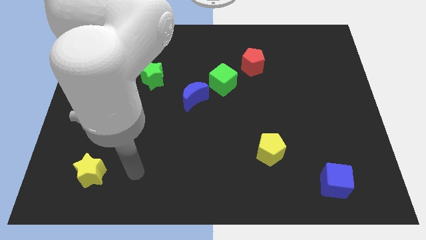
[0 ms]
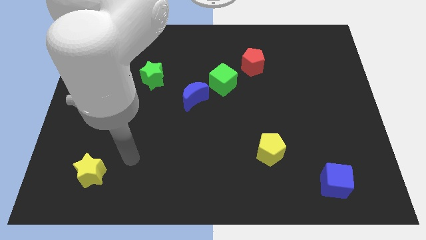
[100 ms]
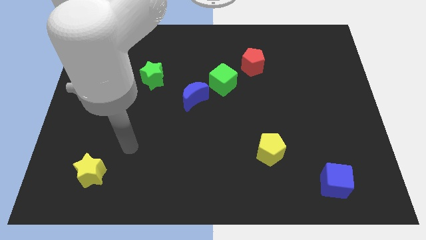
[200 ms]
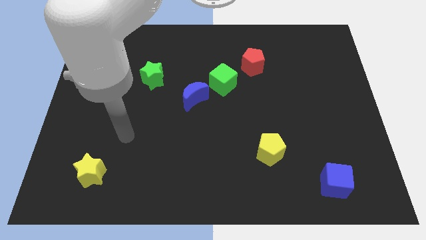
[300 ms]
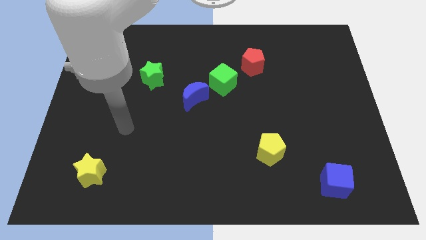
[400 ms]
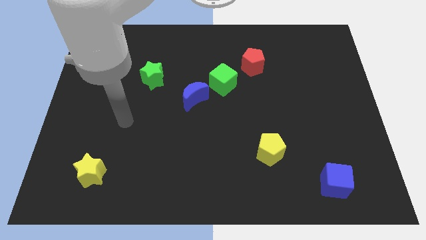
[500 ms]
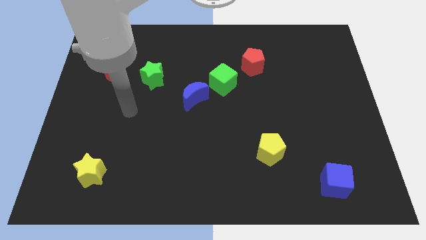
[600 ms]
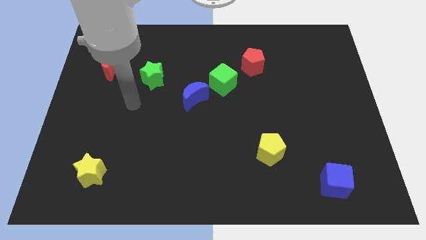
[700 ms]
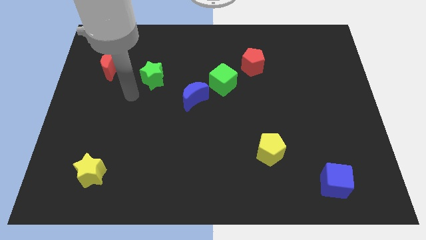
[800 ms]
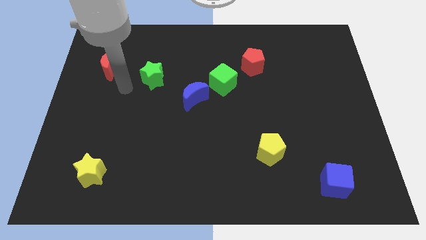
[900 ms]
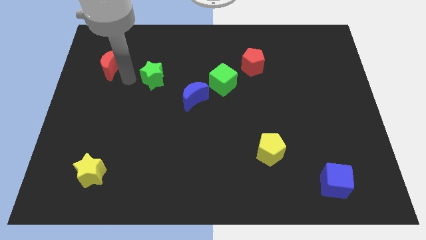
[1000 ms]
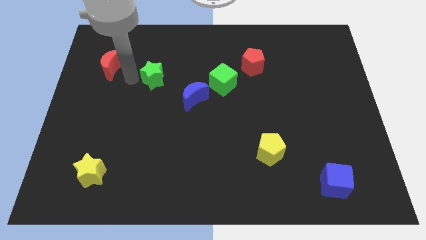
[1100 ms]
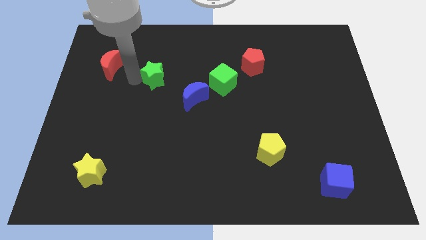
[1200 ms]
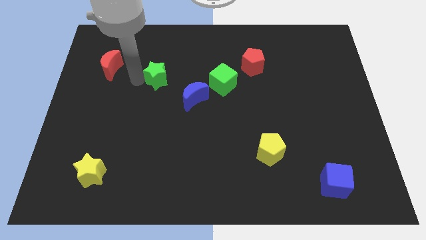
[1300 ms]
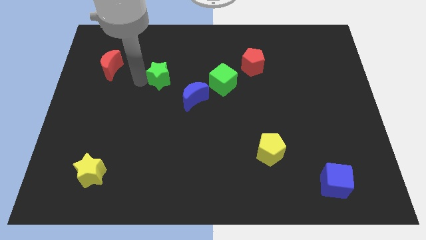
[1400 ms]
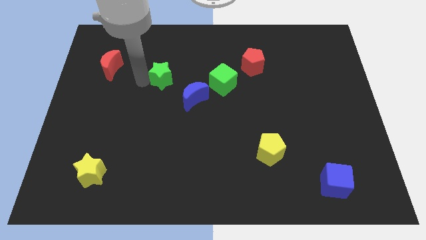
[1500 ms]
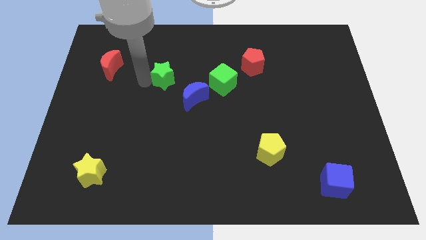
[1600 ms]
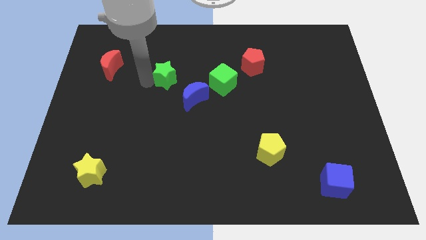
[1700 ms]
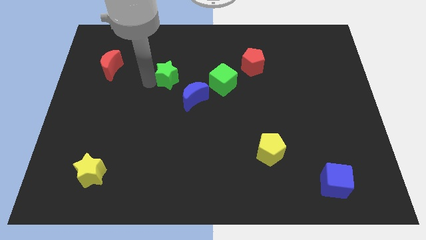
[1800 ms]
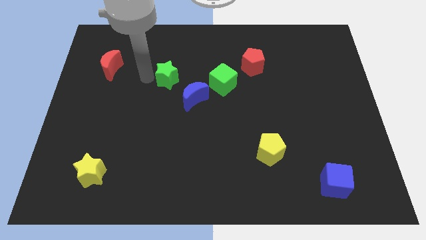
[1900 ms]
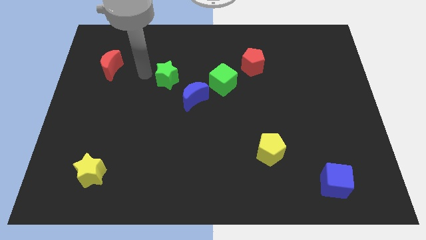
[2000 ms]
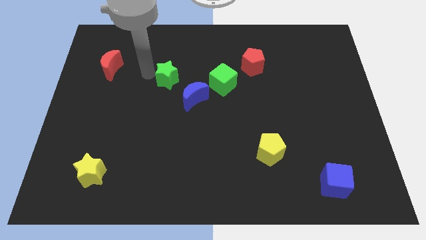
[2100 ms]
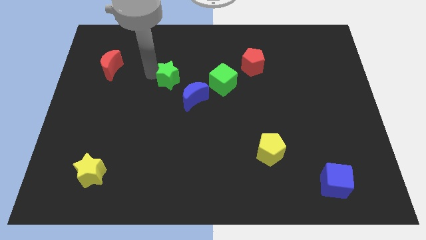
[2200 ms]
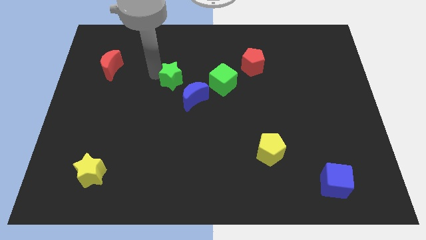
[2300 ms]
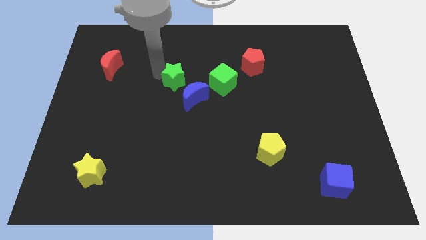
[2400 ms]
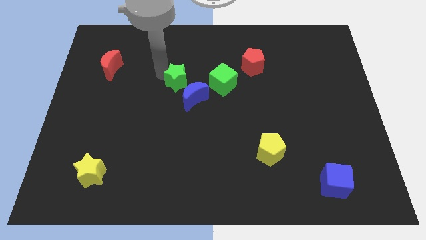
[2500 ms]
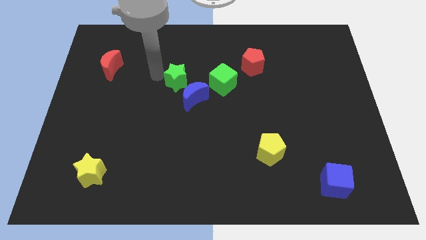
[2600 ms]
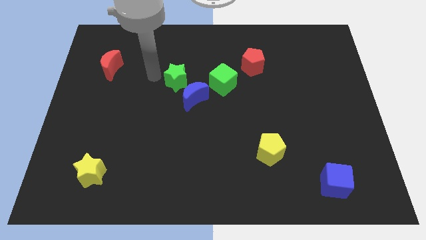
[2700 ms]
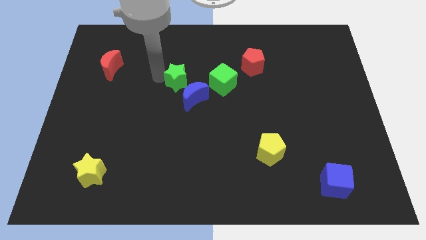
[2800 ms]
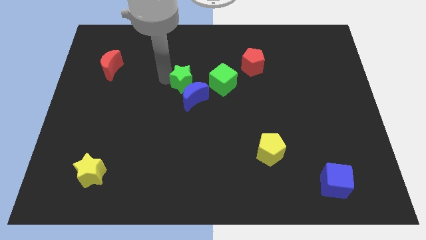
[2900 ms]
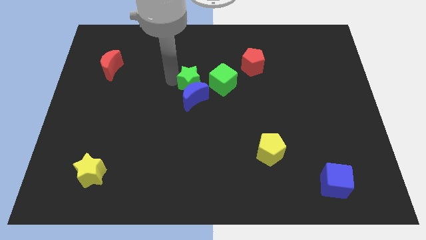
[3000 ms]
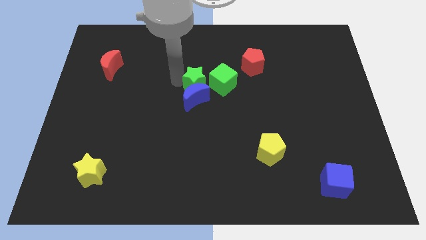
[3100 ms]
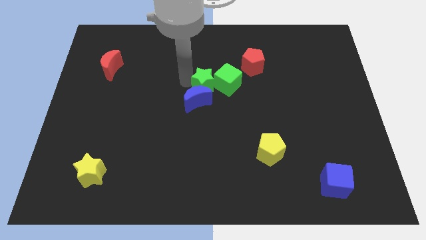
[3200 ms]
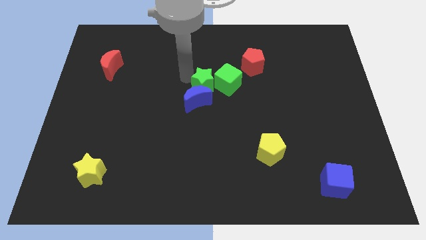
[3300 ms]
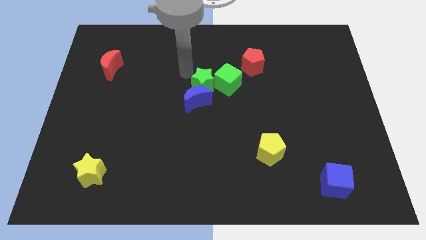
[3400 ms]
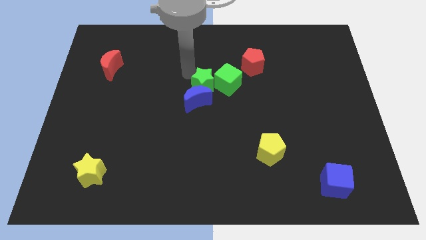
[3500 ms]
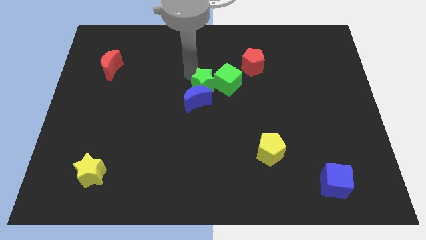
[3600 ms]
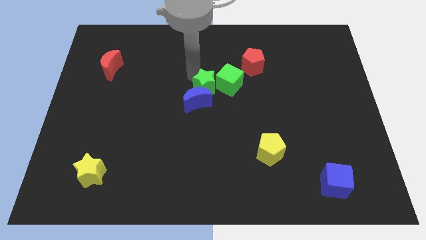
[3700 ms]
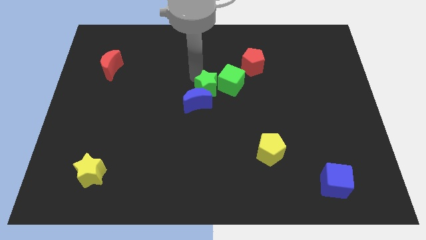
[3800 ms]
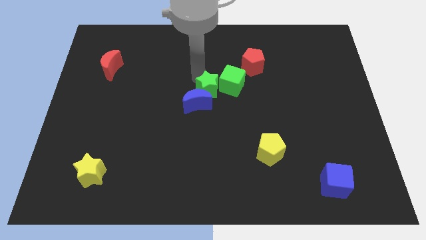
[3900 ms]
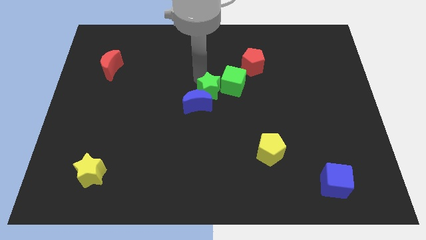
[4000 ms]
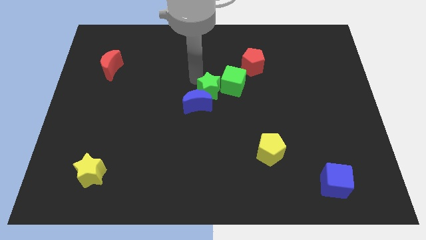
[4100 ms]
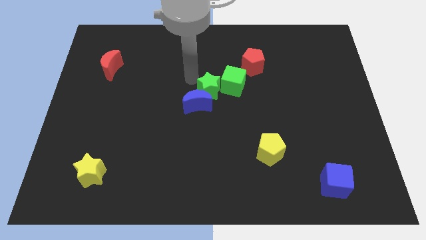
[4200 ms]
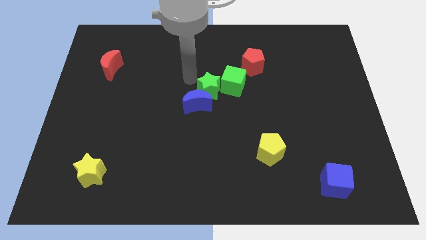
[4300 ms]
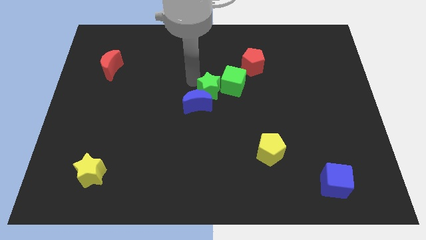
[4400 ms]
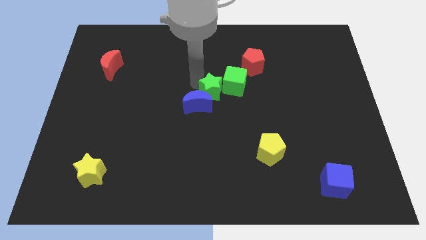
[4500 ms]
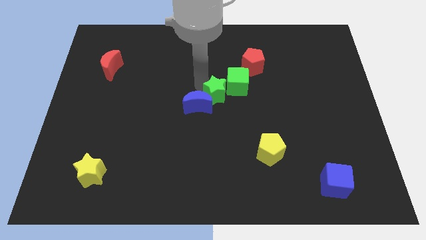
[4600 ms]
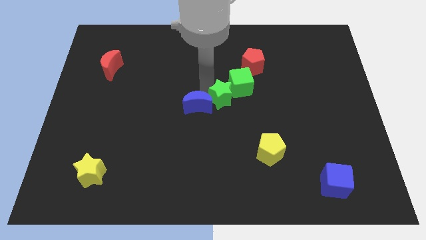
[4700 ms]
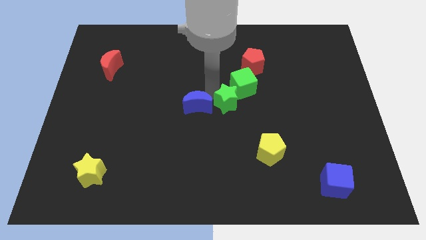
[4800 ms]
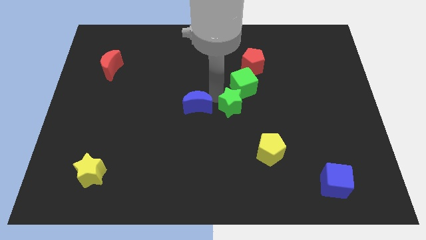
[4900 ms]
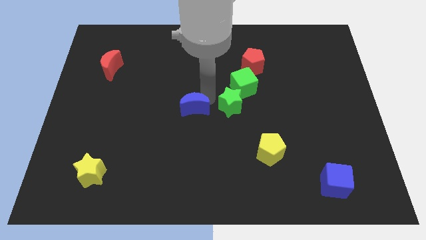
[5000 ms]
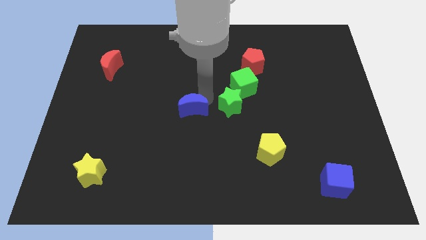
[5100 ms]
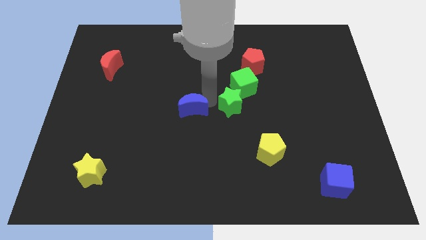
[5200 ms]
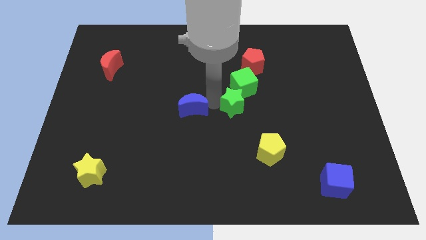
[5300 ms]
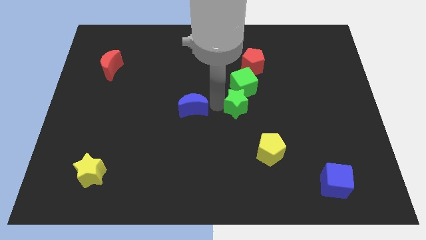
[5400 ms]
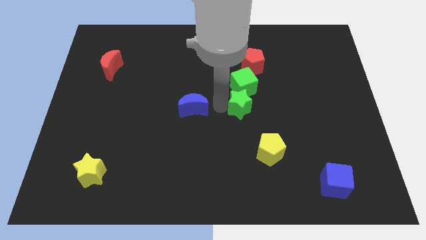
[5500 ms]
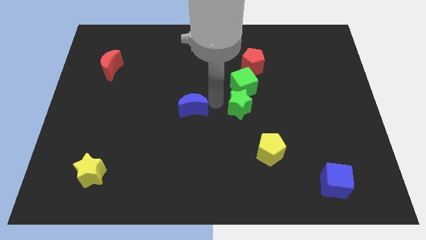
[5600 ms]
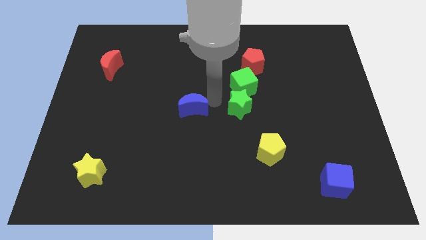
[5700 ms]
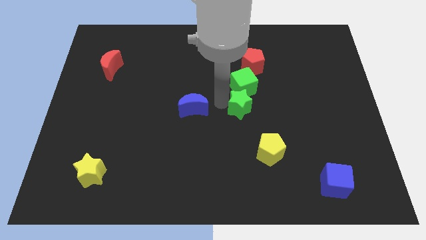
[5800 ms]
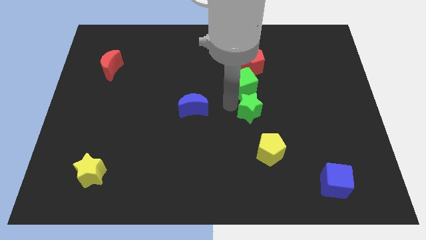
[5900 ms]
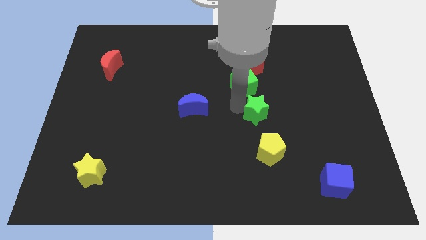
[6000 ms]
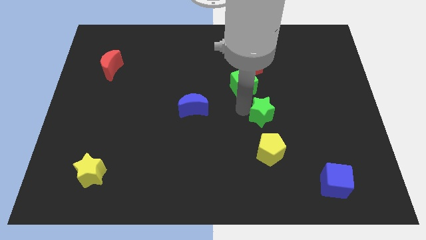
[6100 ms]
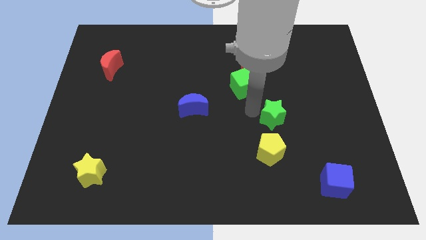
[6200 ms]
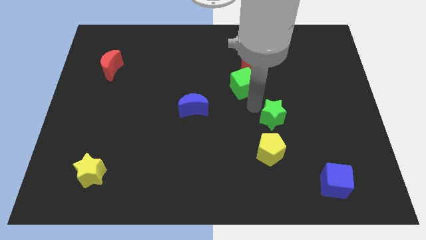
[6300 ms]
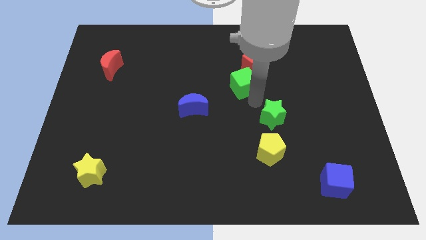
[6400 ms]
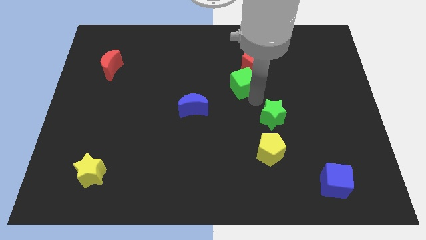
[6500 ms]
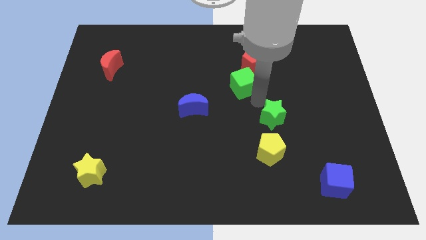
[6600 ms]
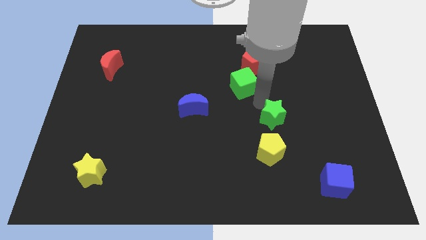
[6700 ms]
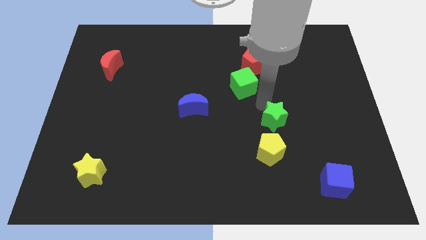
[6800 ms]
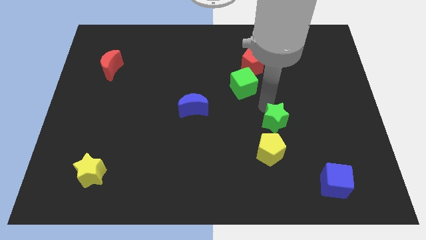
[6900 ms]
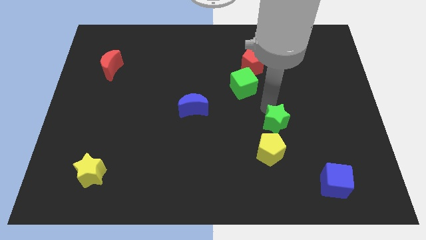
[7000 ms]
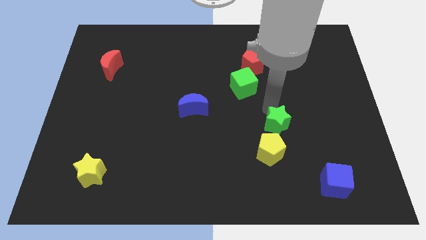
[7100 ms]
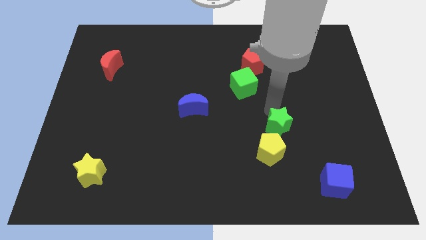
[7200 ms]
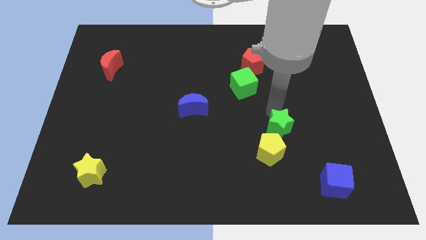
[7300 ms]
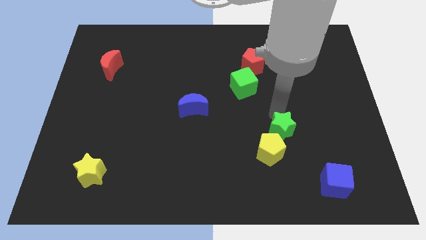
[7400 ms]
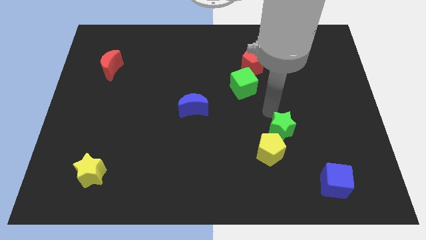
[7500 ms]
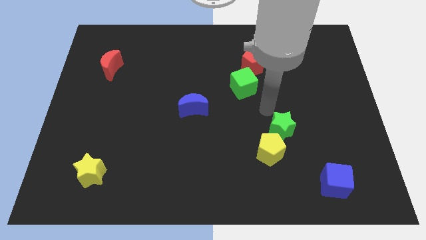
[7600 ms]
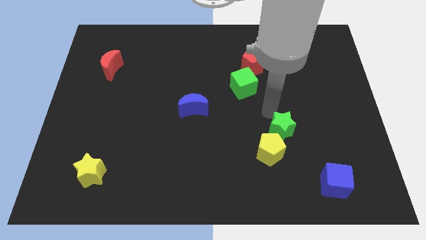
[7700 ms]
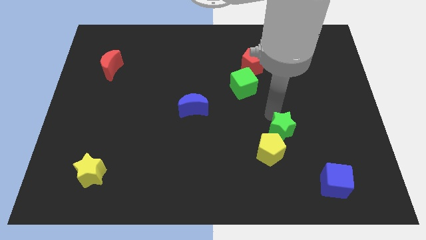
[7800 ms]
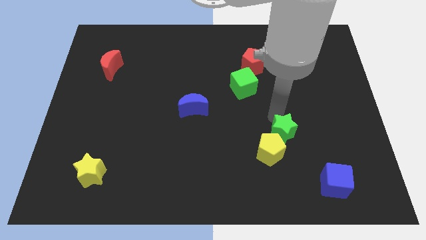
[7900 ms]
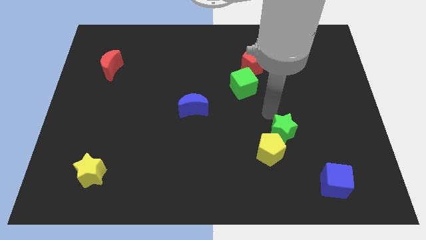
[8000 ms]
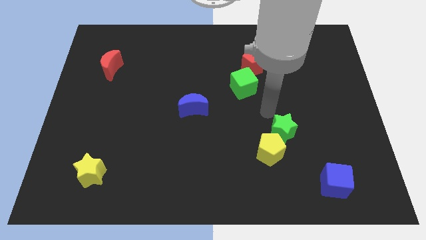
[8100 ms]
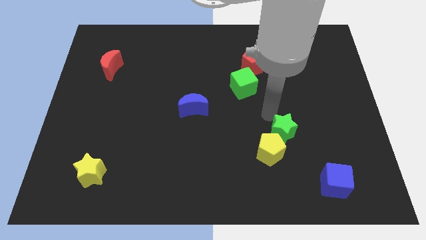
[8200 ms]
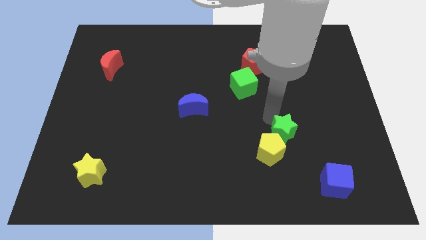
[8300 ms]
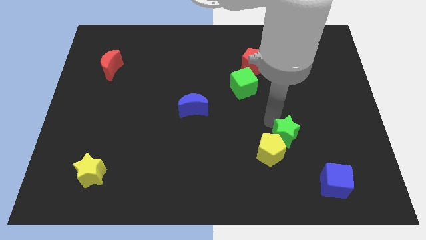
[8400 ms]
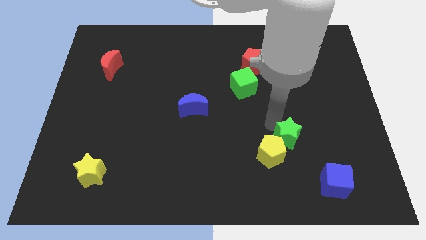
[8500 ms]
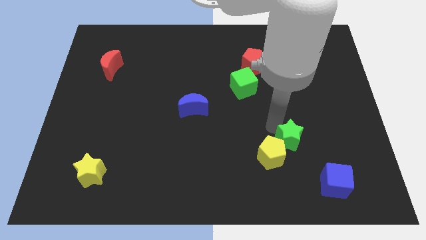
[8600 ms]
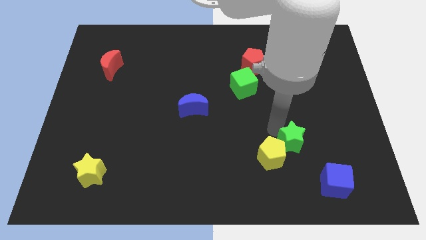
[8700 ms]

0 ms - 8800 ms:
slide the green star to the top left side of the blue cube
